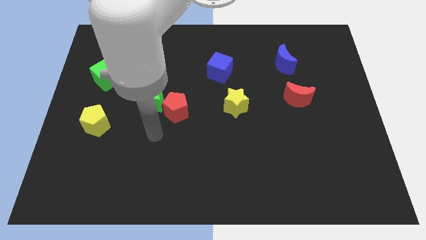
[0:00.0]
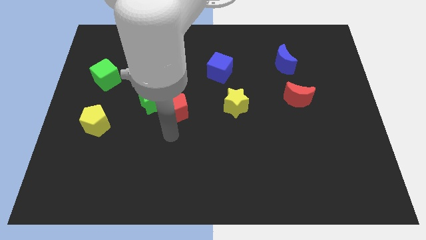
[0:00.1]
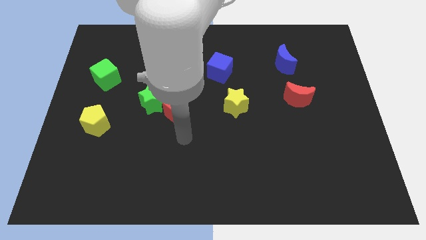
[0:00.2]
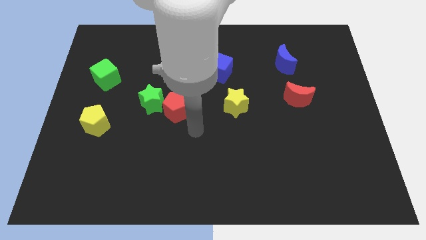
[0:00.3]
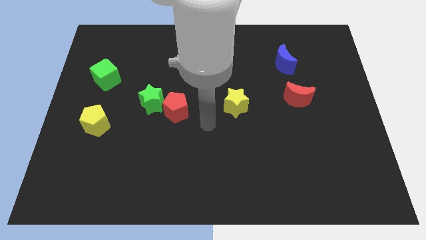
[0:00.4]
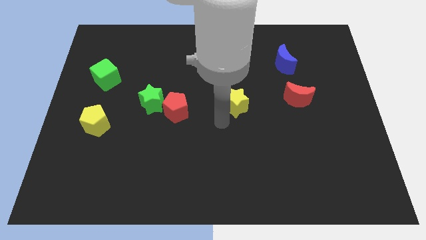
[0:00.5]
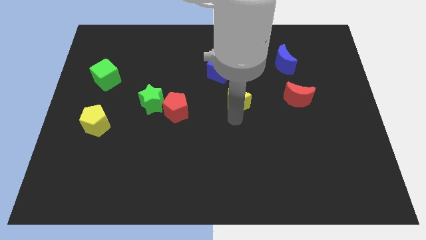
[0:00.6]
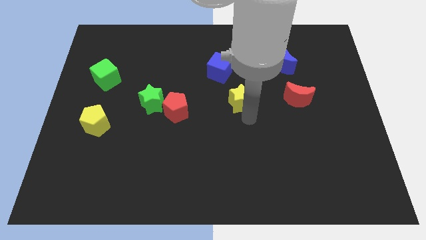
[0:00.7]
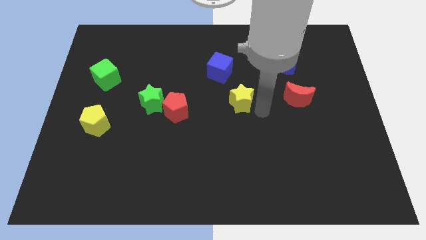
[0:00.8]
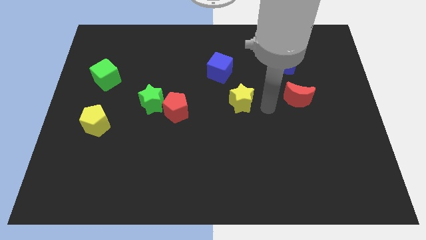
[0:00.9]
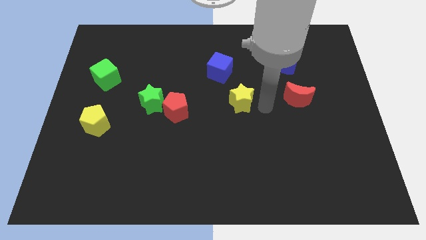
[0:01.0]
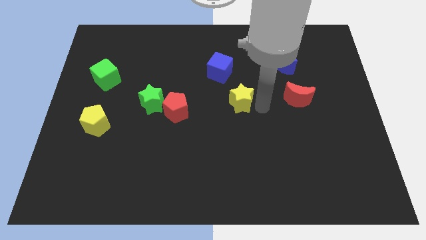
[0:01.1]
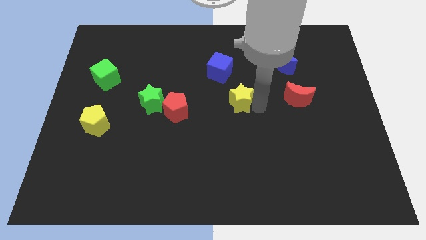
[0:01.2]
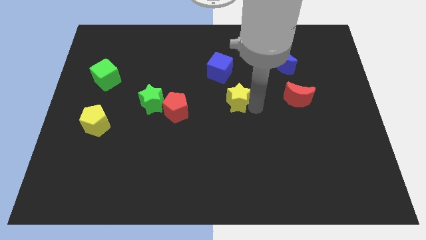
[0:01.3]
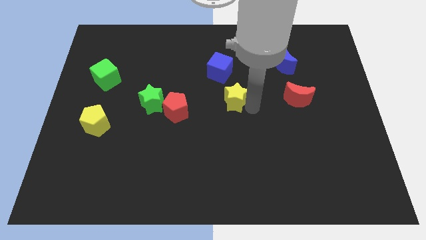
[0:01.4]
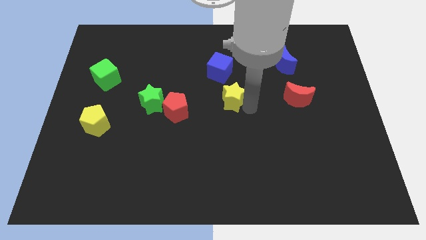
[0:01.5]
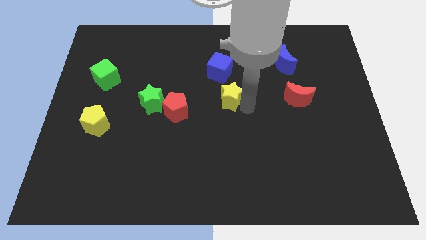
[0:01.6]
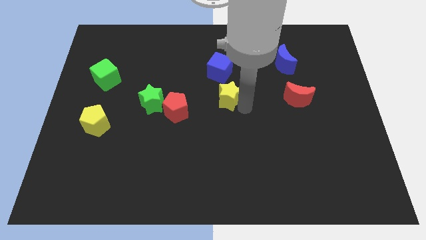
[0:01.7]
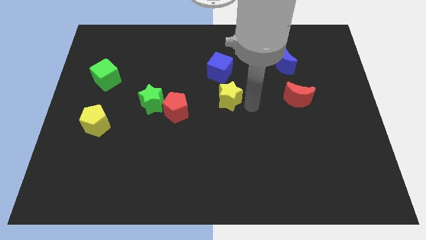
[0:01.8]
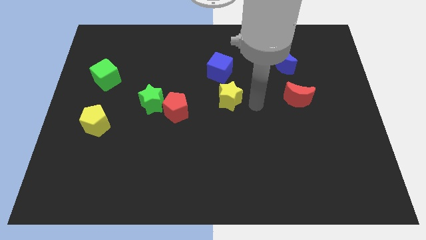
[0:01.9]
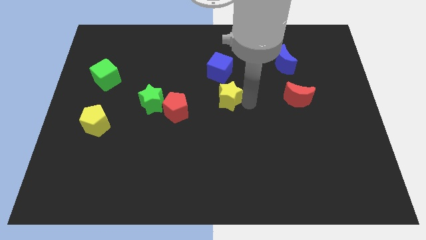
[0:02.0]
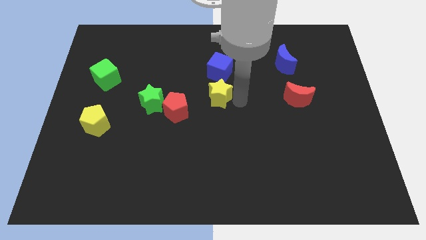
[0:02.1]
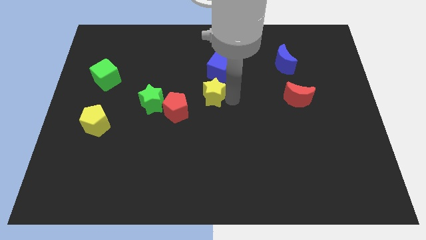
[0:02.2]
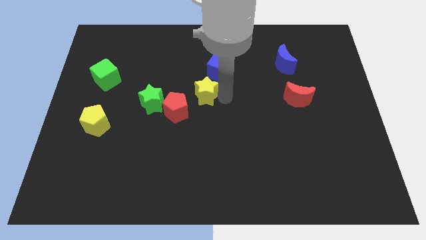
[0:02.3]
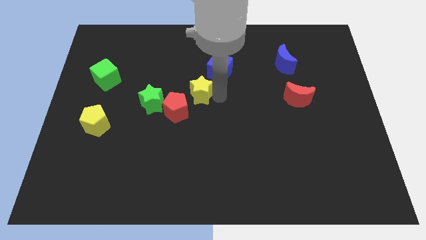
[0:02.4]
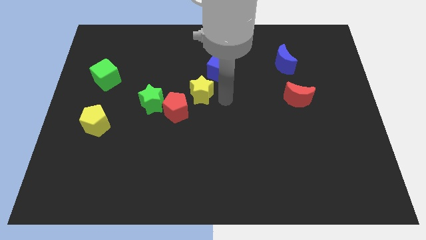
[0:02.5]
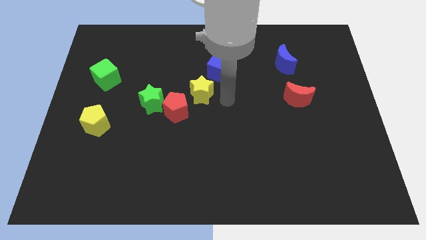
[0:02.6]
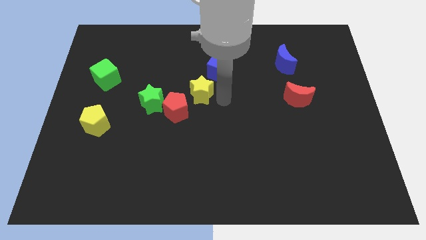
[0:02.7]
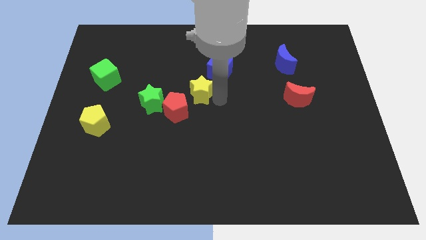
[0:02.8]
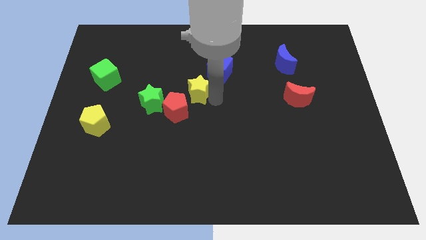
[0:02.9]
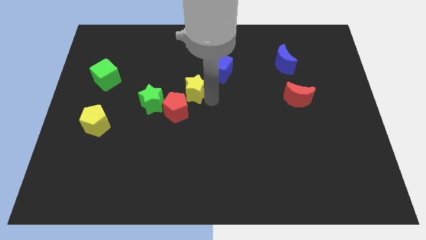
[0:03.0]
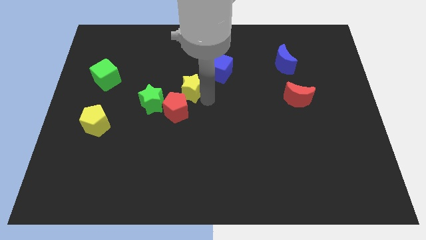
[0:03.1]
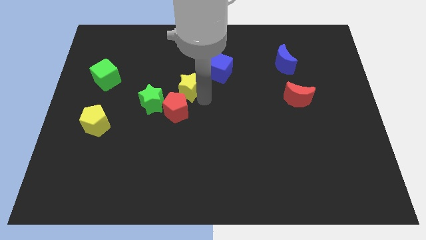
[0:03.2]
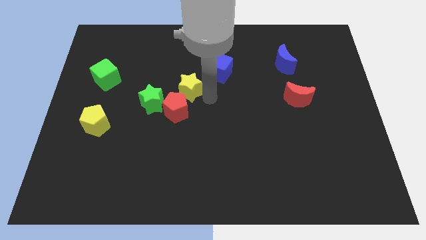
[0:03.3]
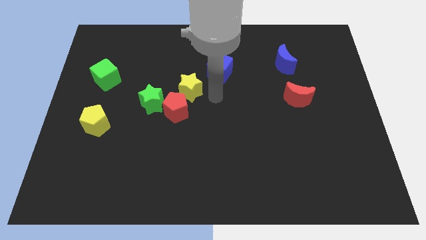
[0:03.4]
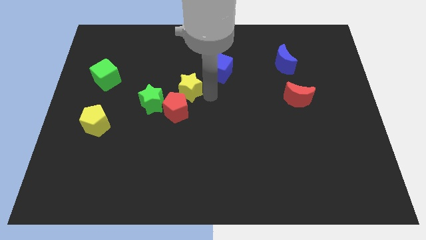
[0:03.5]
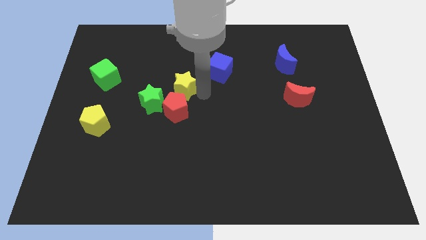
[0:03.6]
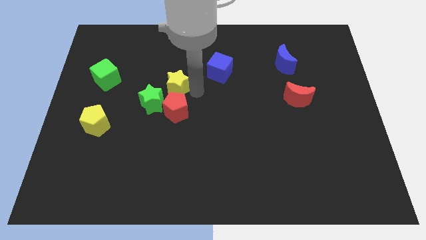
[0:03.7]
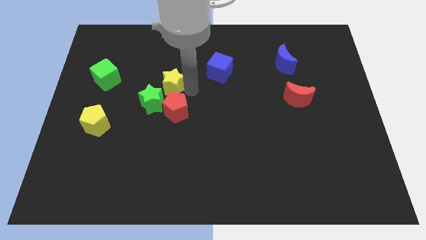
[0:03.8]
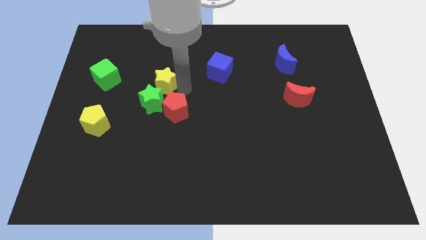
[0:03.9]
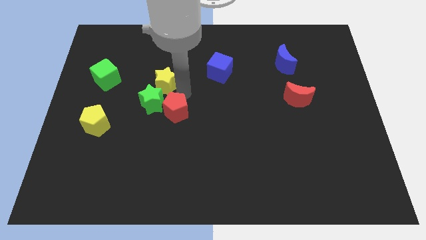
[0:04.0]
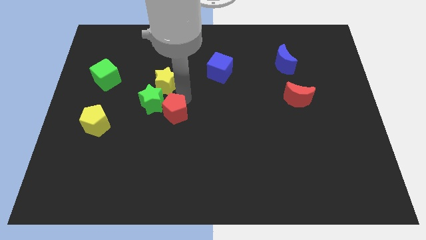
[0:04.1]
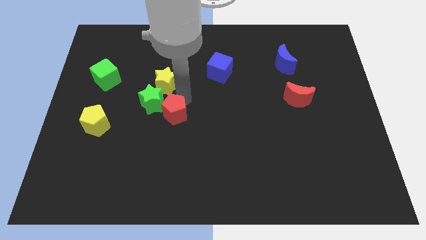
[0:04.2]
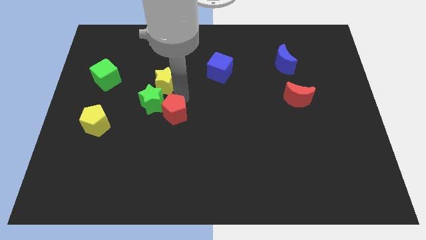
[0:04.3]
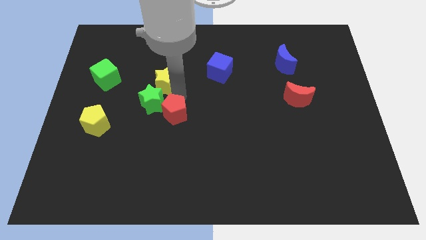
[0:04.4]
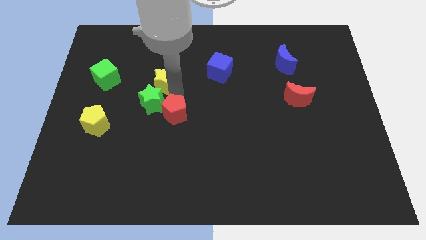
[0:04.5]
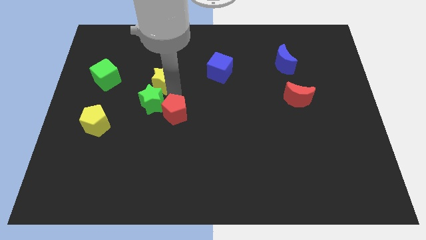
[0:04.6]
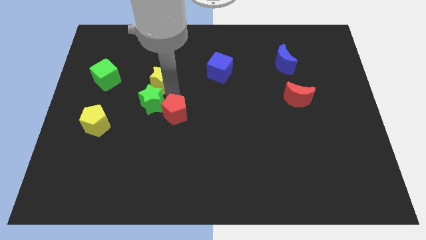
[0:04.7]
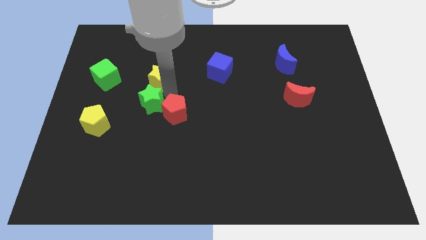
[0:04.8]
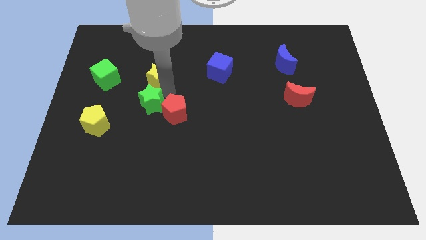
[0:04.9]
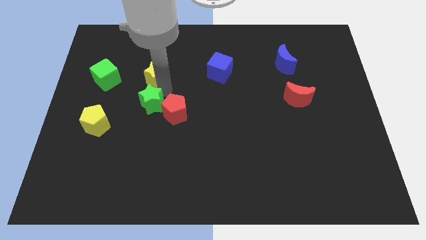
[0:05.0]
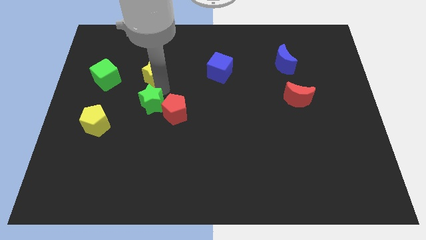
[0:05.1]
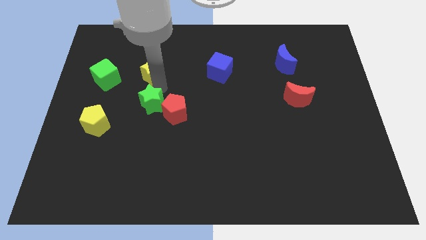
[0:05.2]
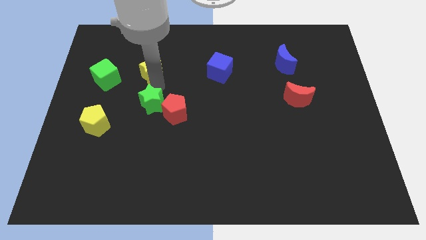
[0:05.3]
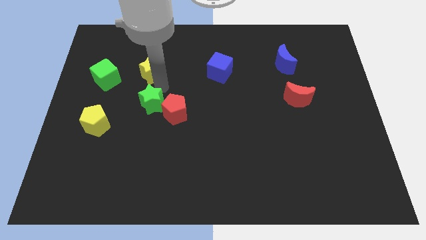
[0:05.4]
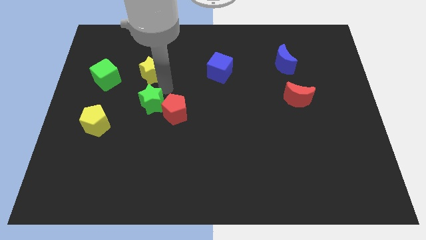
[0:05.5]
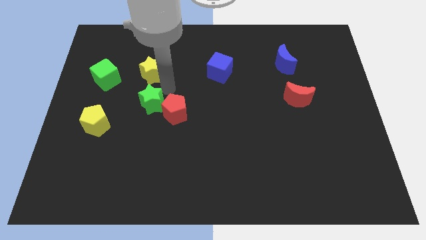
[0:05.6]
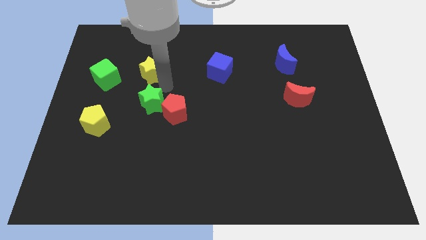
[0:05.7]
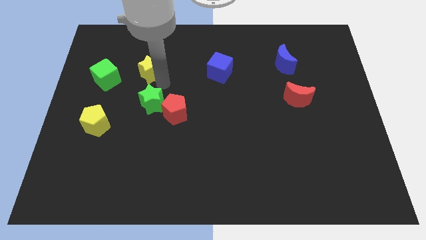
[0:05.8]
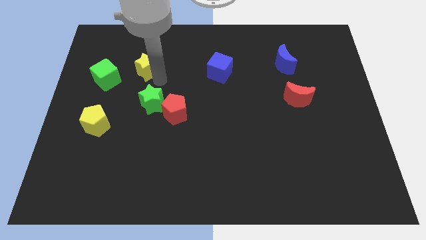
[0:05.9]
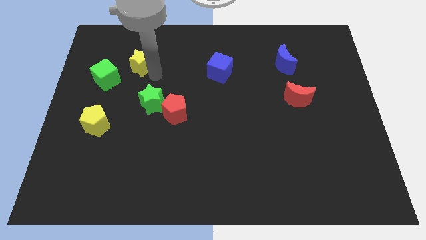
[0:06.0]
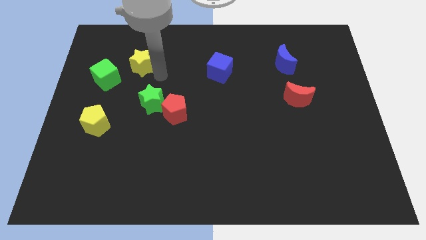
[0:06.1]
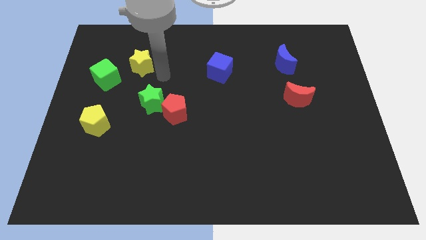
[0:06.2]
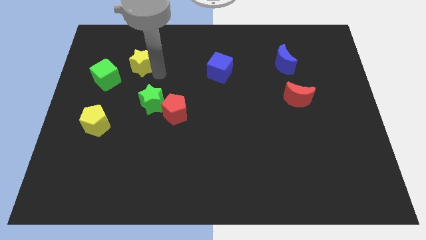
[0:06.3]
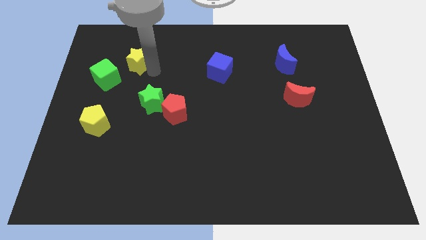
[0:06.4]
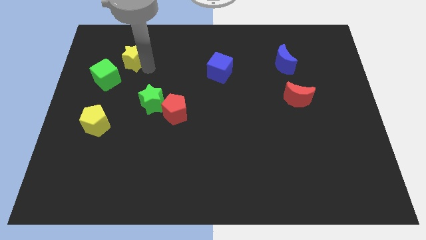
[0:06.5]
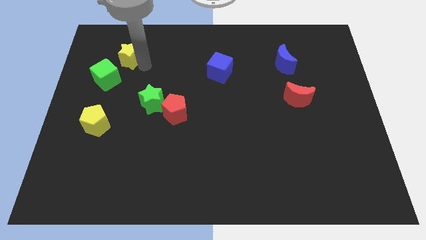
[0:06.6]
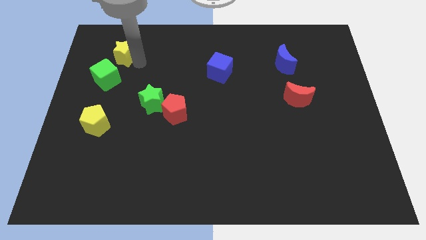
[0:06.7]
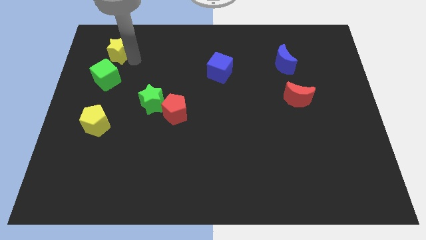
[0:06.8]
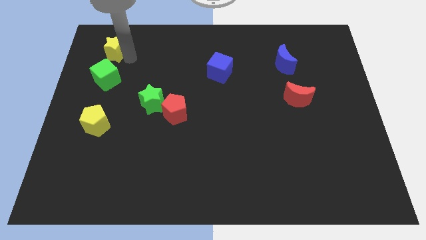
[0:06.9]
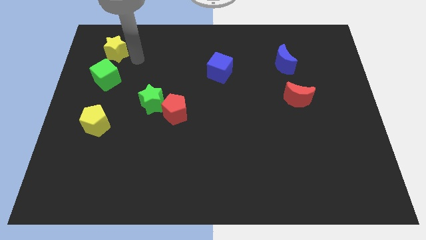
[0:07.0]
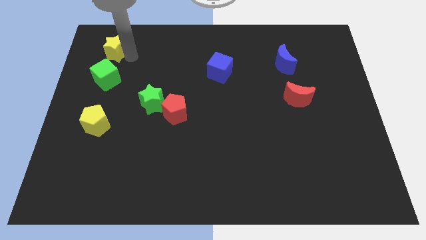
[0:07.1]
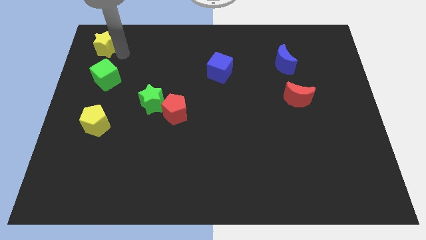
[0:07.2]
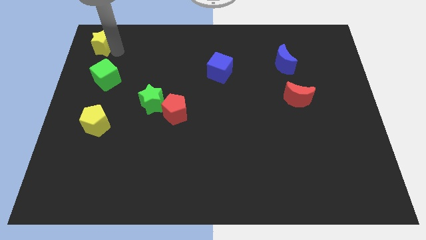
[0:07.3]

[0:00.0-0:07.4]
slide the yellow star to the top left corner
